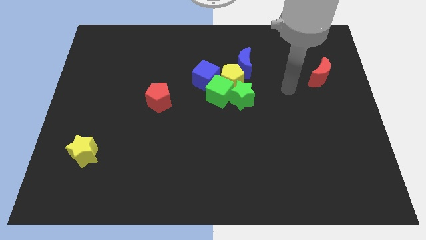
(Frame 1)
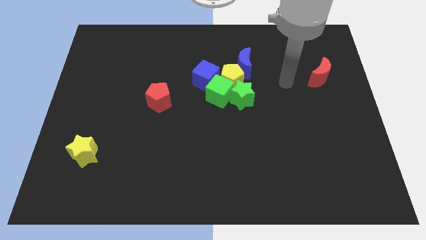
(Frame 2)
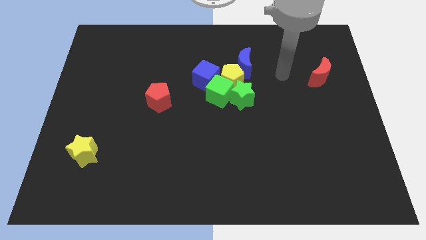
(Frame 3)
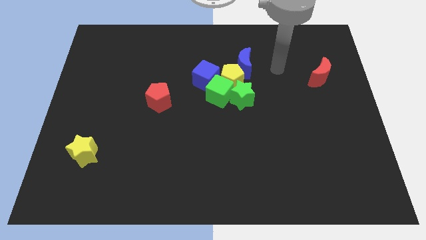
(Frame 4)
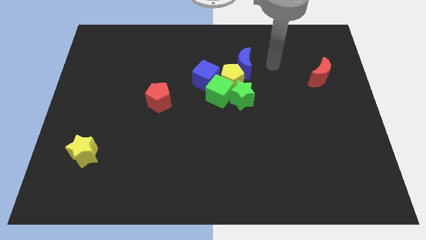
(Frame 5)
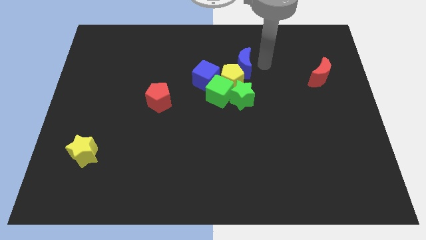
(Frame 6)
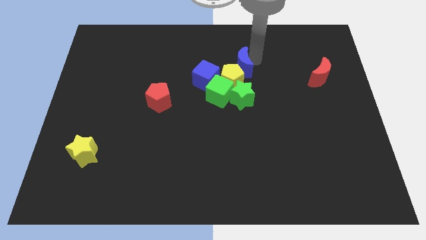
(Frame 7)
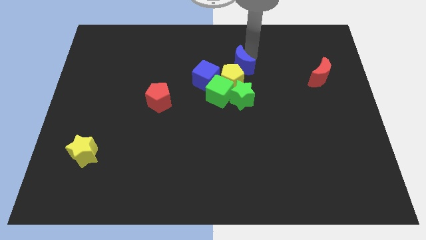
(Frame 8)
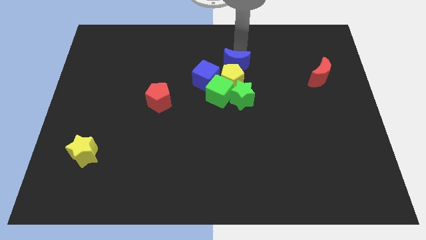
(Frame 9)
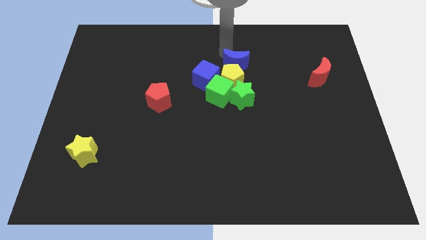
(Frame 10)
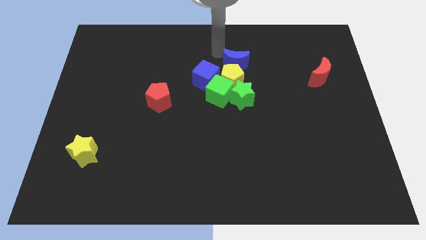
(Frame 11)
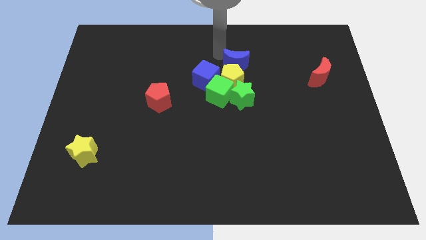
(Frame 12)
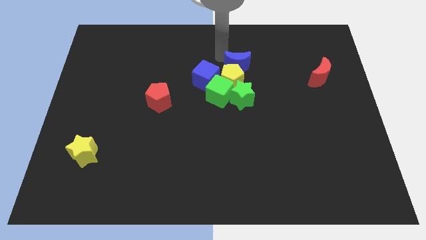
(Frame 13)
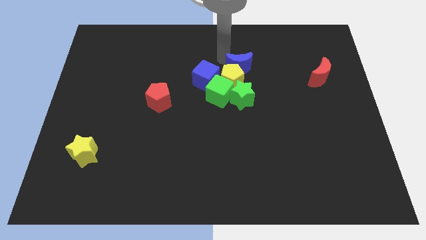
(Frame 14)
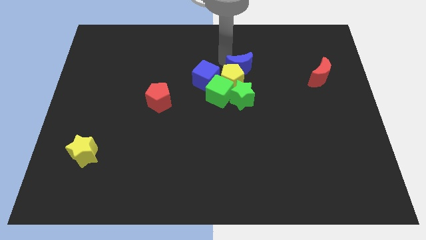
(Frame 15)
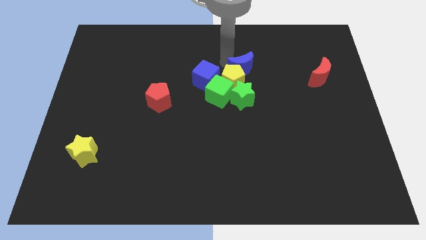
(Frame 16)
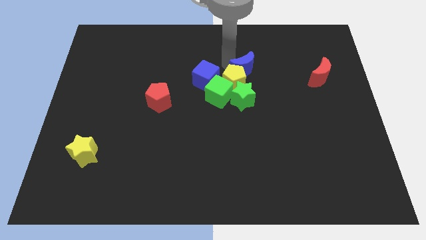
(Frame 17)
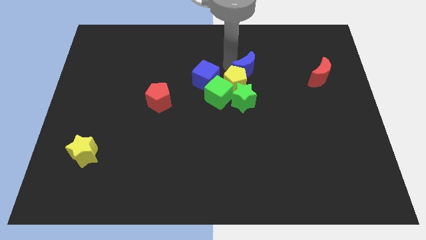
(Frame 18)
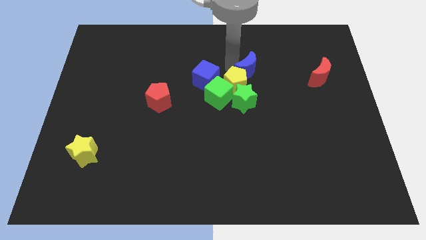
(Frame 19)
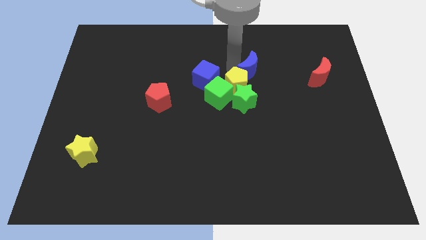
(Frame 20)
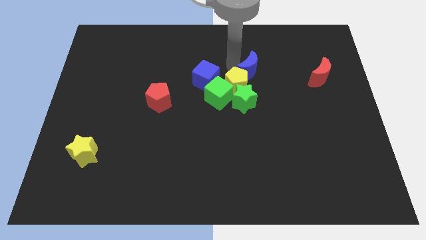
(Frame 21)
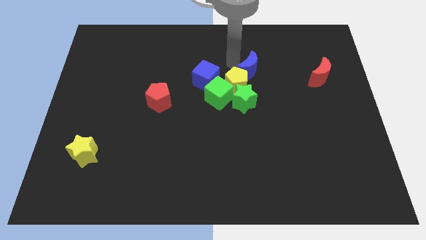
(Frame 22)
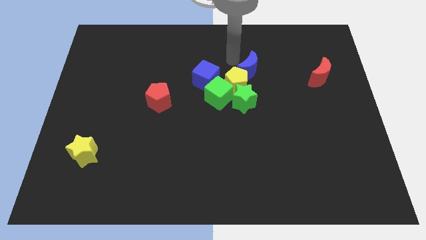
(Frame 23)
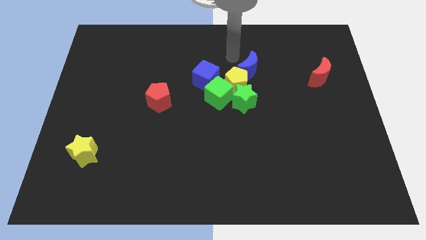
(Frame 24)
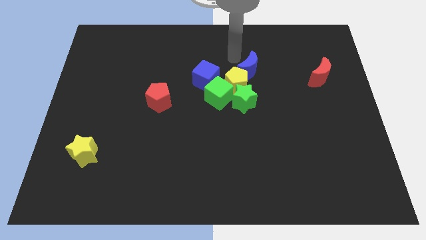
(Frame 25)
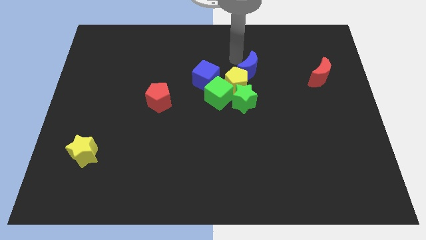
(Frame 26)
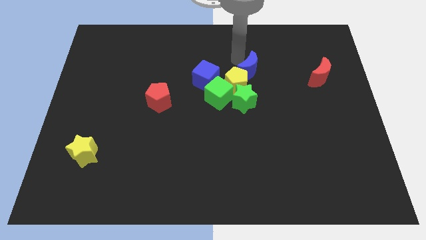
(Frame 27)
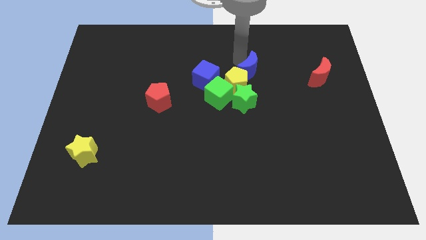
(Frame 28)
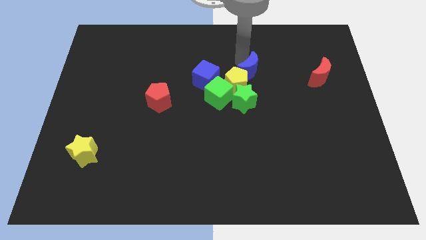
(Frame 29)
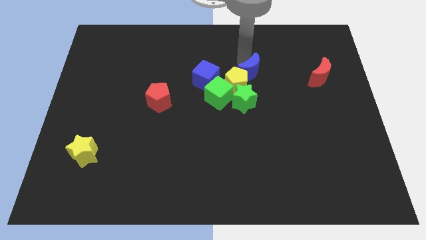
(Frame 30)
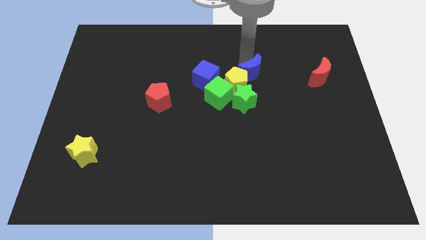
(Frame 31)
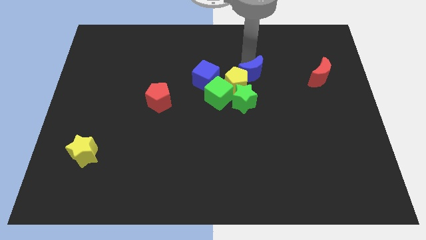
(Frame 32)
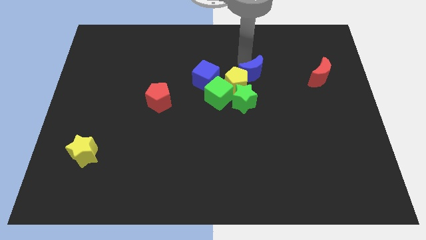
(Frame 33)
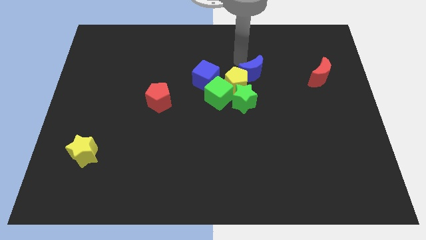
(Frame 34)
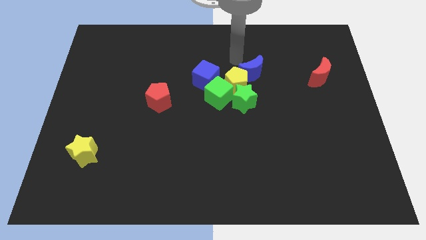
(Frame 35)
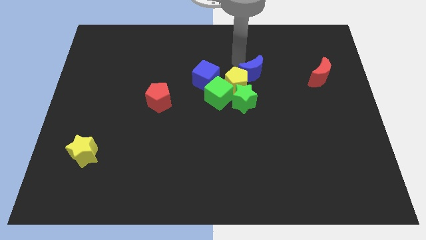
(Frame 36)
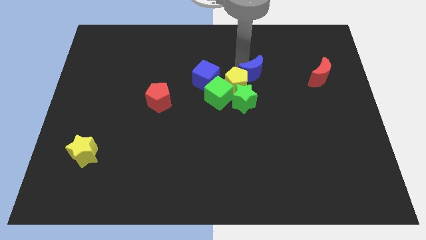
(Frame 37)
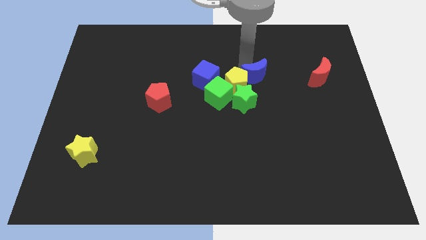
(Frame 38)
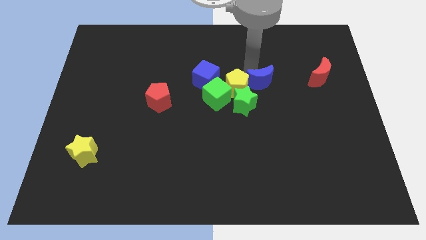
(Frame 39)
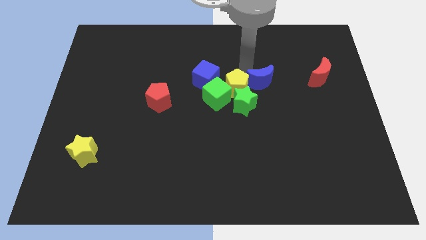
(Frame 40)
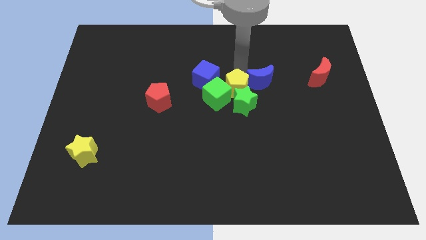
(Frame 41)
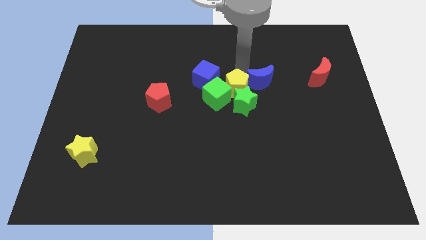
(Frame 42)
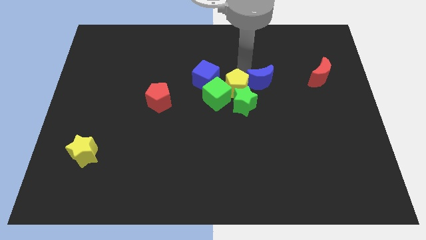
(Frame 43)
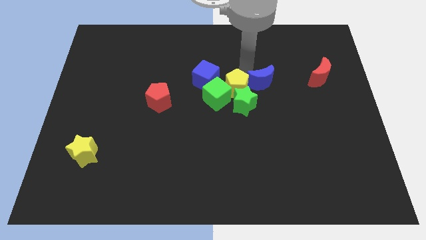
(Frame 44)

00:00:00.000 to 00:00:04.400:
move the blue moon a little bit diagonally downwards and right

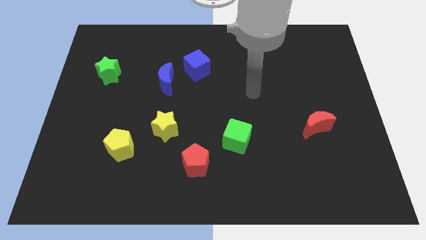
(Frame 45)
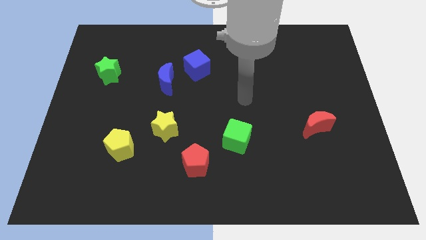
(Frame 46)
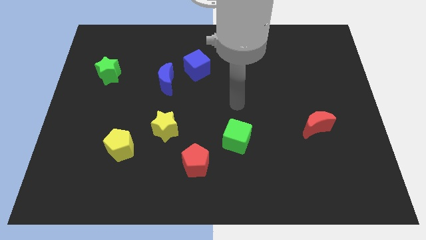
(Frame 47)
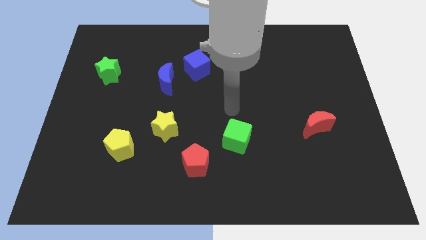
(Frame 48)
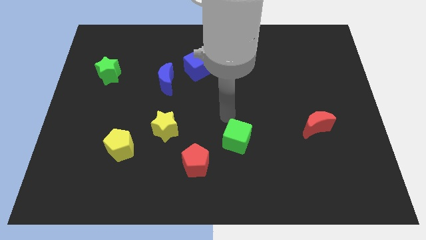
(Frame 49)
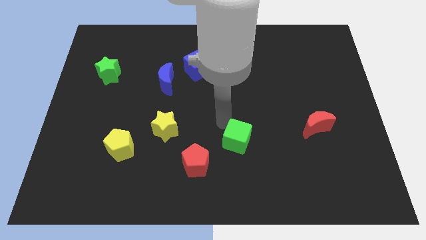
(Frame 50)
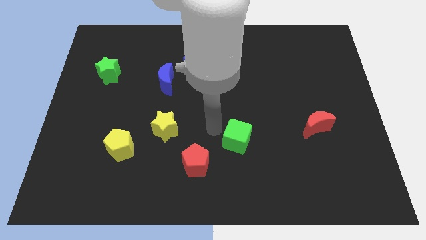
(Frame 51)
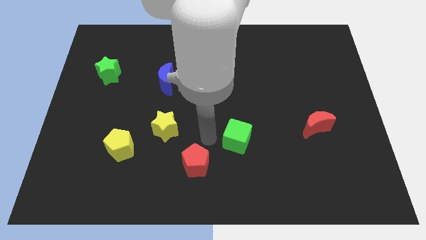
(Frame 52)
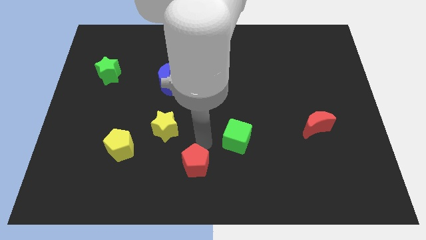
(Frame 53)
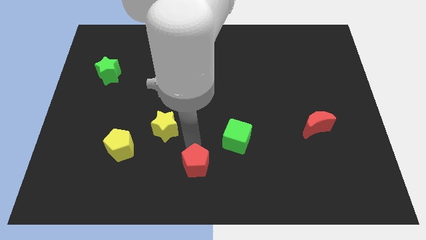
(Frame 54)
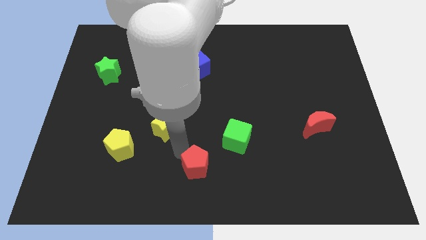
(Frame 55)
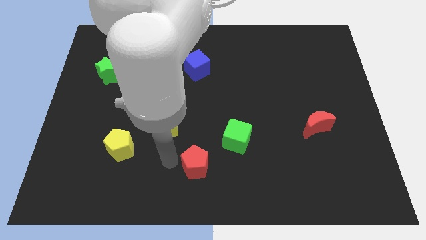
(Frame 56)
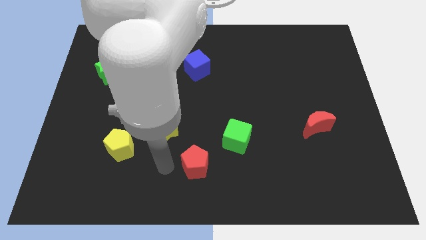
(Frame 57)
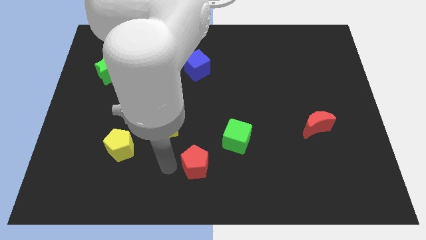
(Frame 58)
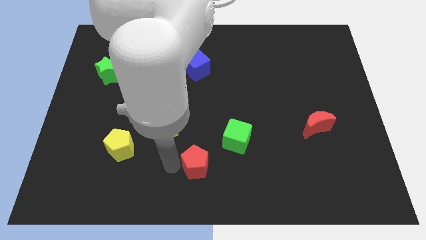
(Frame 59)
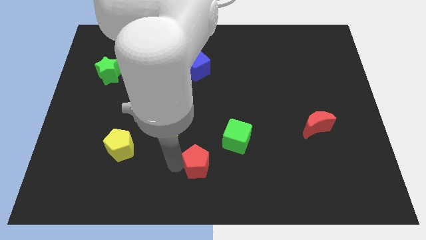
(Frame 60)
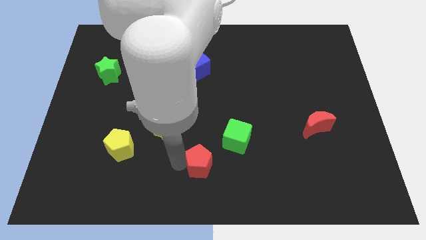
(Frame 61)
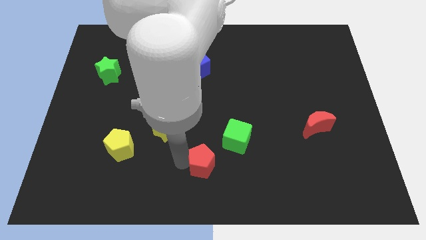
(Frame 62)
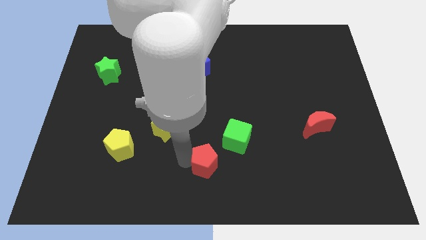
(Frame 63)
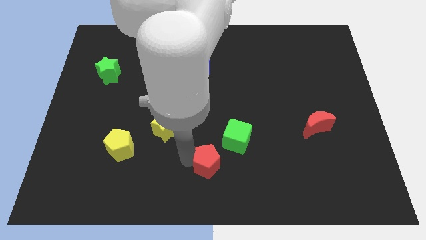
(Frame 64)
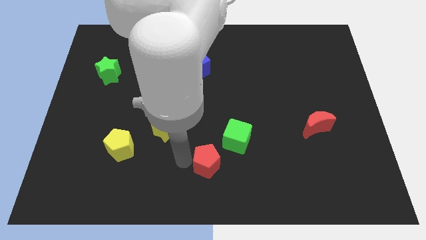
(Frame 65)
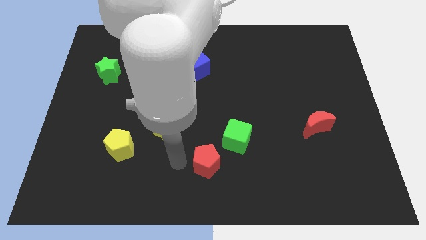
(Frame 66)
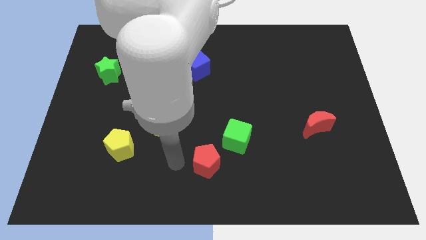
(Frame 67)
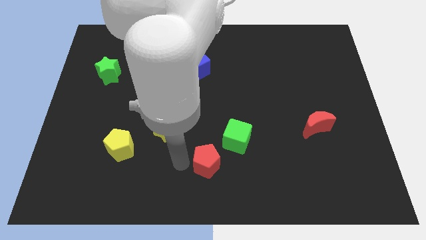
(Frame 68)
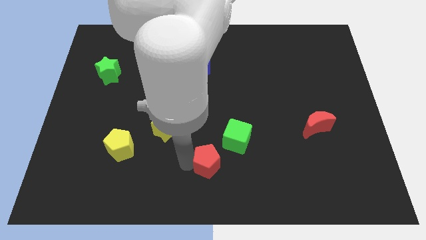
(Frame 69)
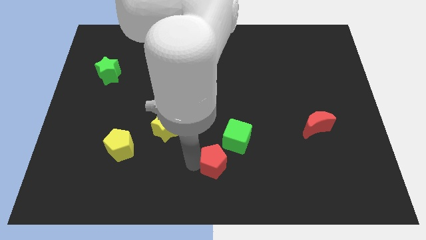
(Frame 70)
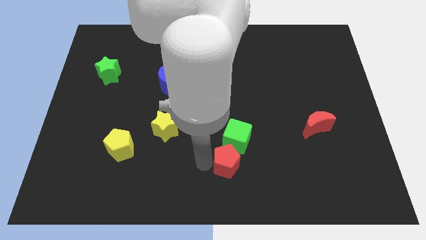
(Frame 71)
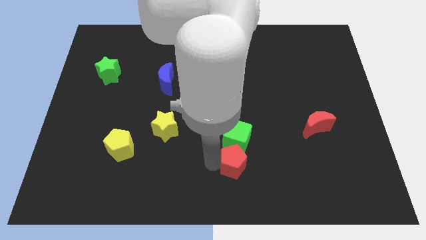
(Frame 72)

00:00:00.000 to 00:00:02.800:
move the red pentagon to the right a bit

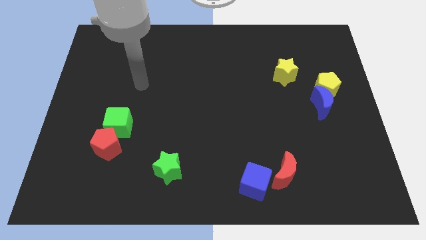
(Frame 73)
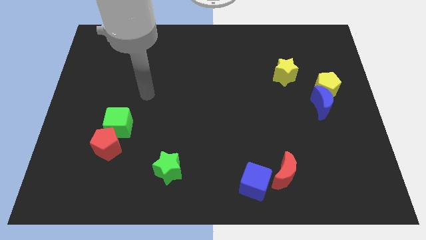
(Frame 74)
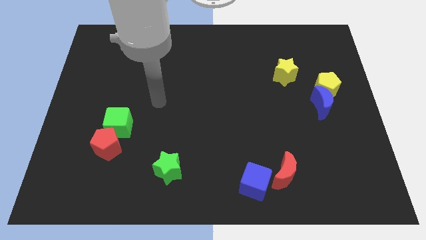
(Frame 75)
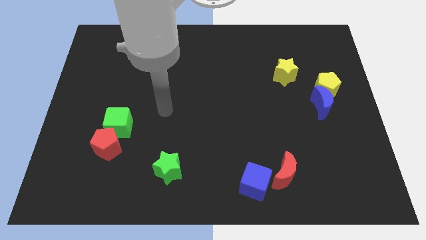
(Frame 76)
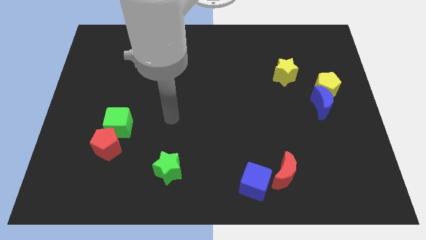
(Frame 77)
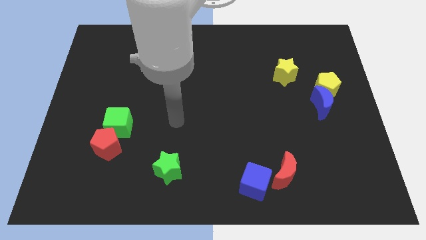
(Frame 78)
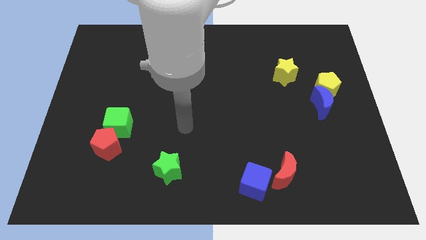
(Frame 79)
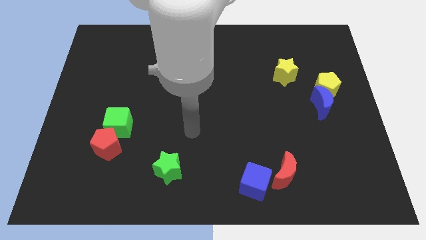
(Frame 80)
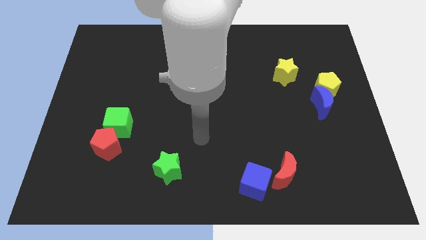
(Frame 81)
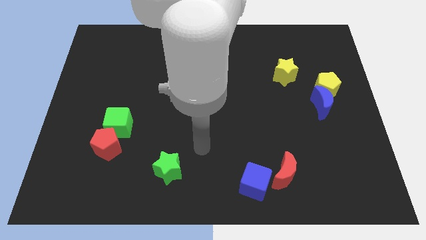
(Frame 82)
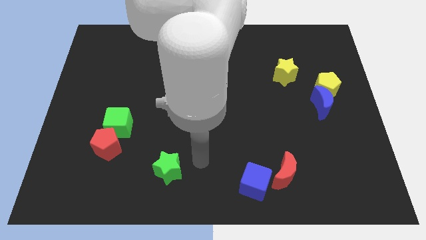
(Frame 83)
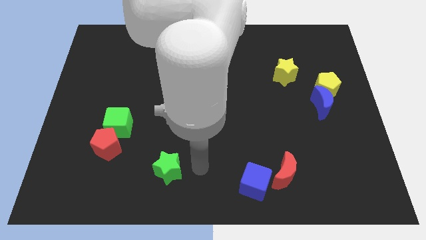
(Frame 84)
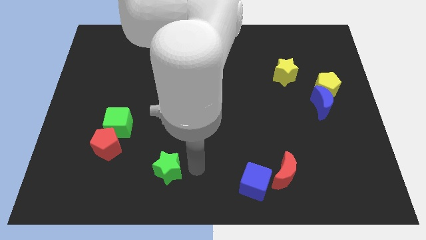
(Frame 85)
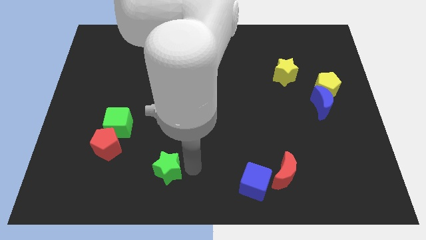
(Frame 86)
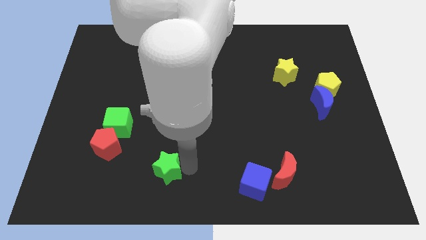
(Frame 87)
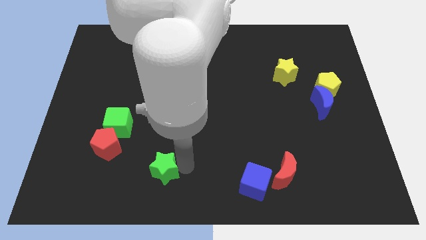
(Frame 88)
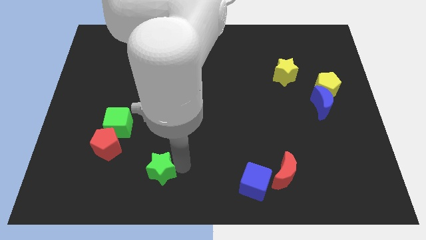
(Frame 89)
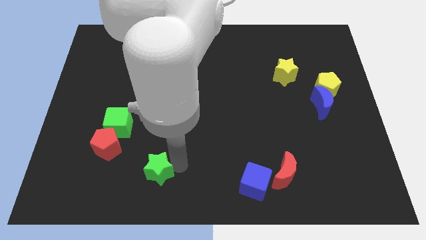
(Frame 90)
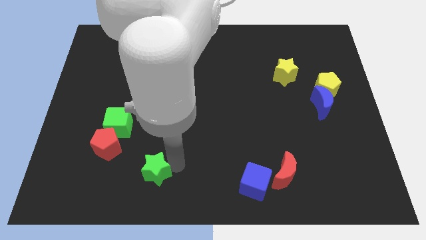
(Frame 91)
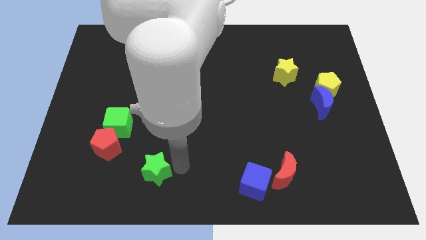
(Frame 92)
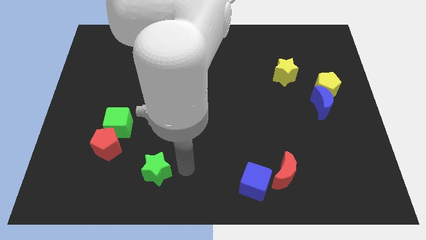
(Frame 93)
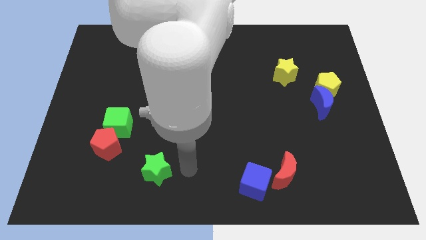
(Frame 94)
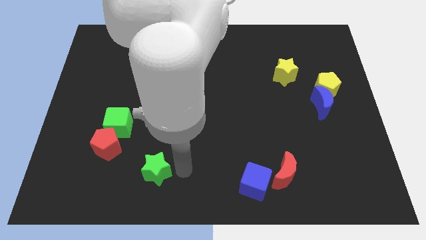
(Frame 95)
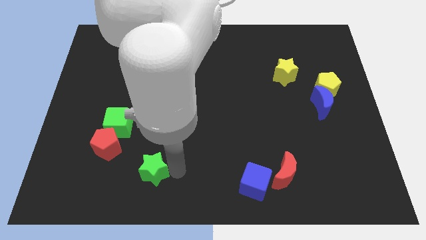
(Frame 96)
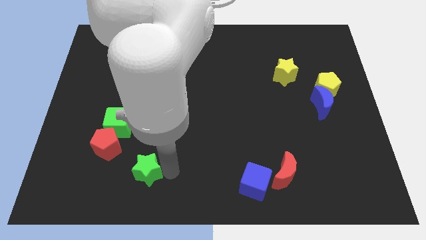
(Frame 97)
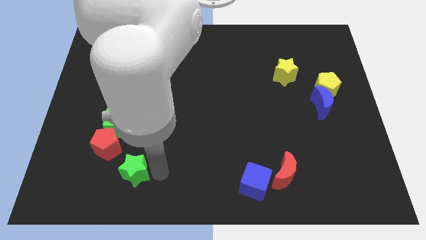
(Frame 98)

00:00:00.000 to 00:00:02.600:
slightly slide the green star to the left
